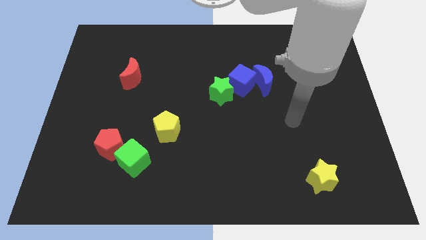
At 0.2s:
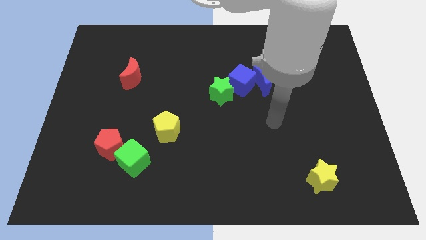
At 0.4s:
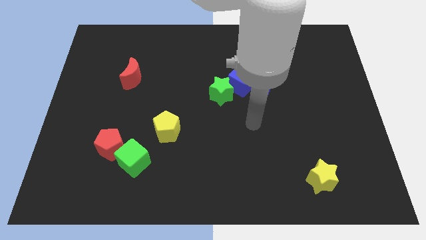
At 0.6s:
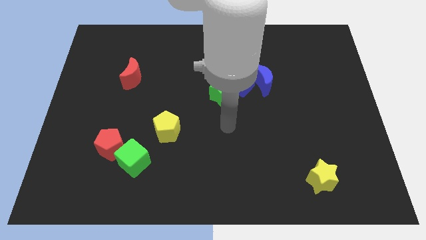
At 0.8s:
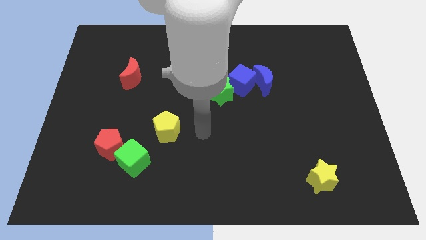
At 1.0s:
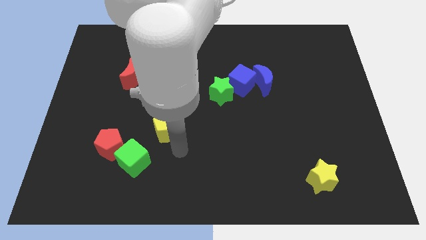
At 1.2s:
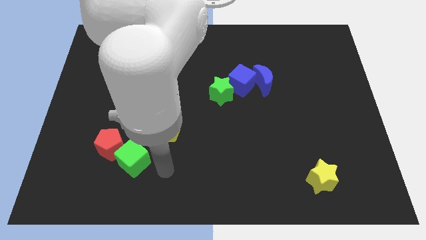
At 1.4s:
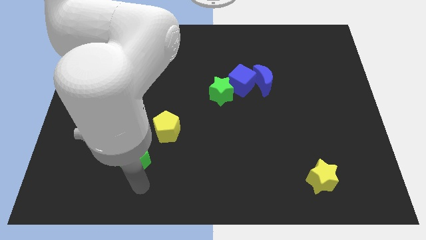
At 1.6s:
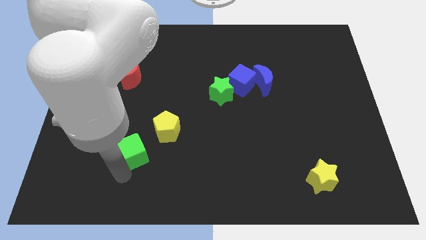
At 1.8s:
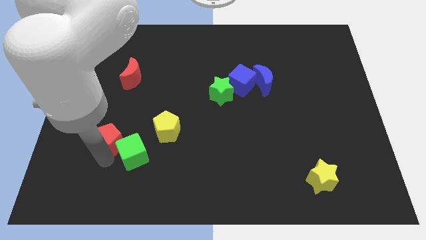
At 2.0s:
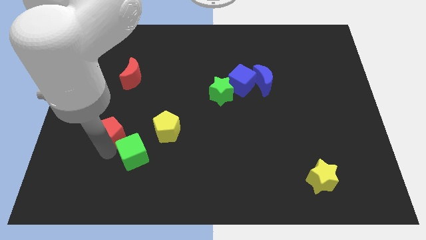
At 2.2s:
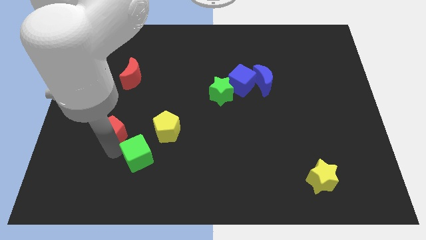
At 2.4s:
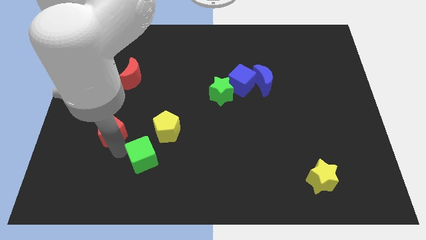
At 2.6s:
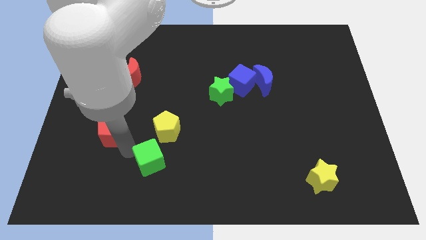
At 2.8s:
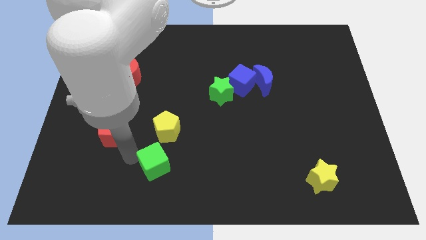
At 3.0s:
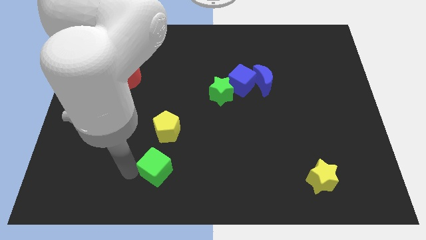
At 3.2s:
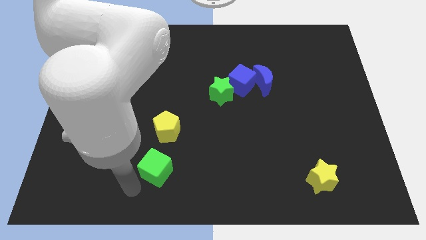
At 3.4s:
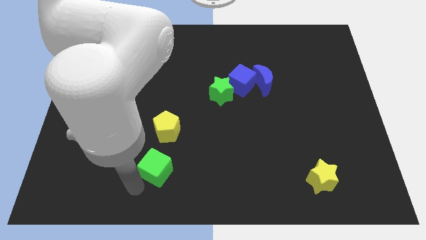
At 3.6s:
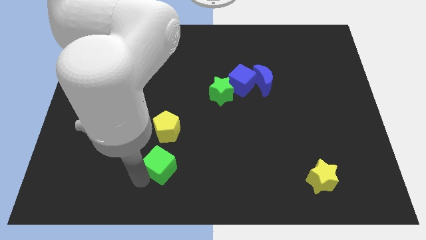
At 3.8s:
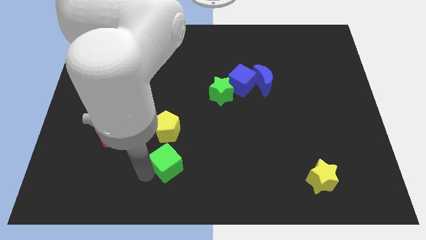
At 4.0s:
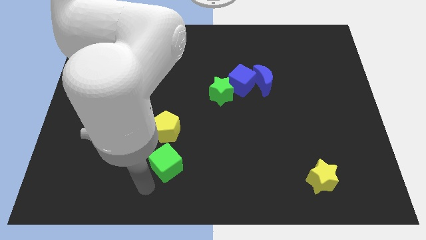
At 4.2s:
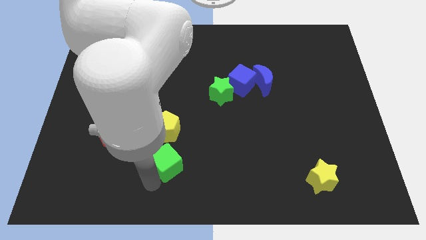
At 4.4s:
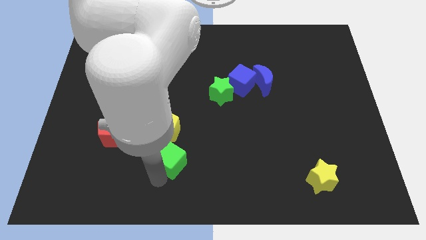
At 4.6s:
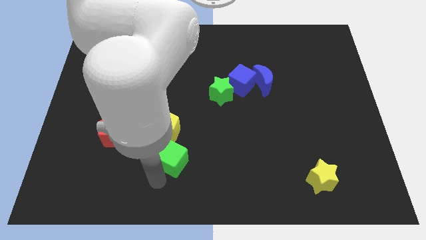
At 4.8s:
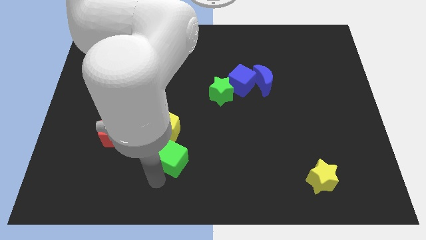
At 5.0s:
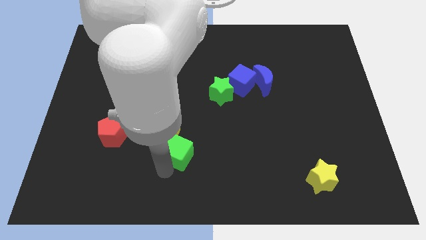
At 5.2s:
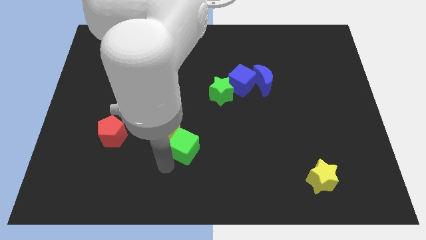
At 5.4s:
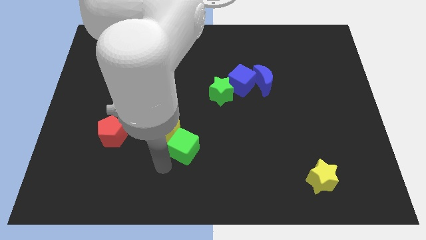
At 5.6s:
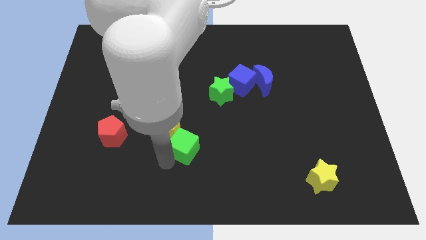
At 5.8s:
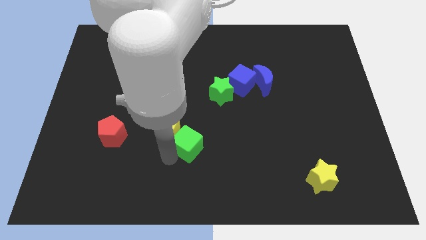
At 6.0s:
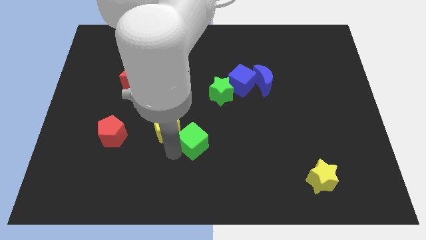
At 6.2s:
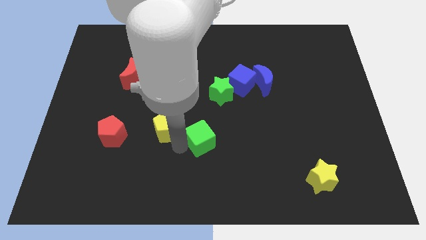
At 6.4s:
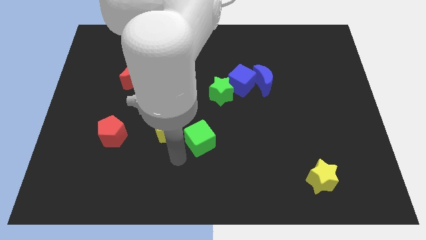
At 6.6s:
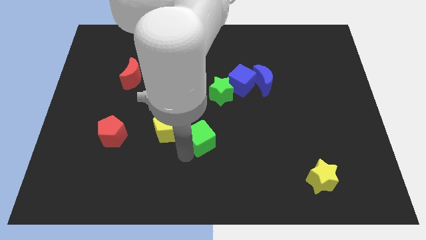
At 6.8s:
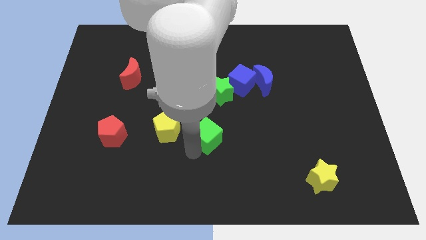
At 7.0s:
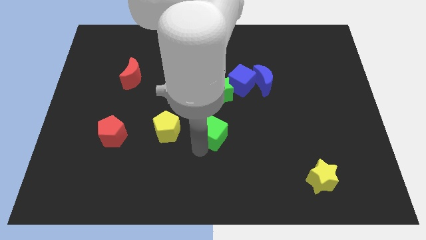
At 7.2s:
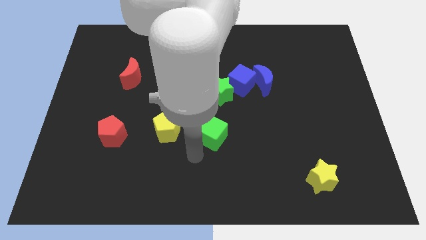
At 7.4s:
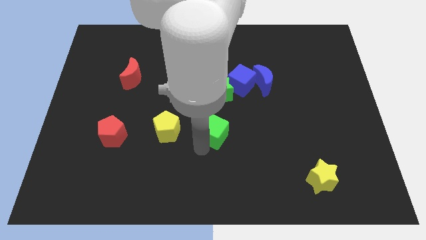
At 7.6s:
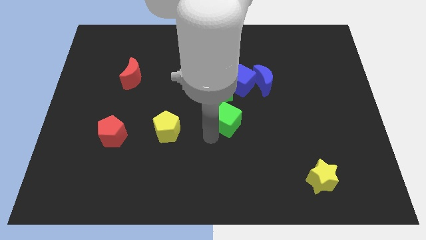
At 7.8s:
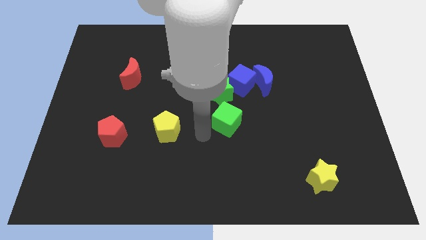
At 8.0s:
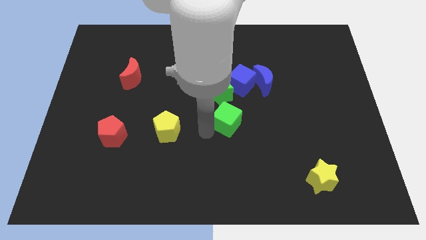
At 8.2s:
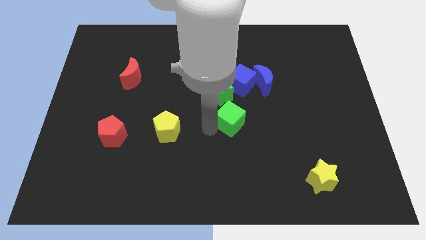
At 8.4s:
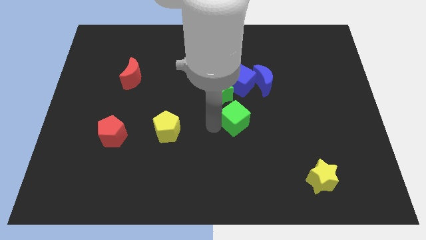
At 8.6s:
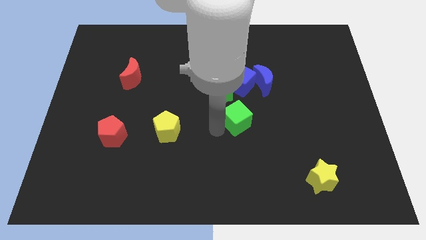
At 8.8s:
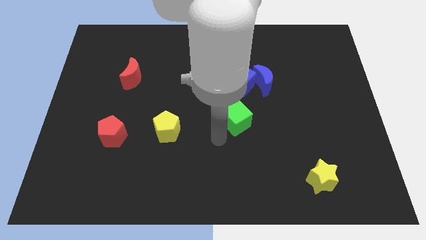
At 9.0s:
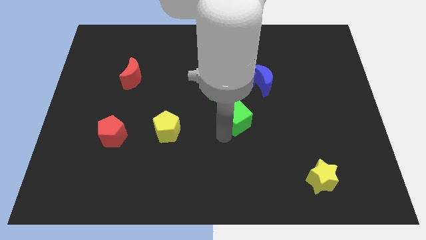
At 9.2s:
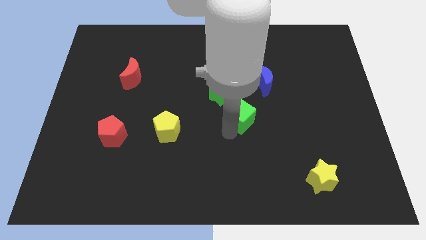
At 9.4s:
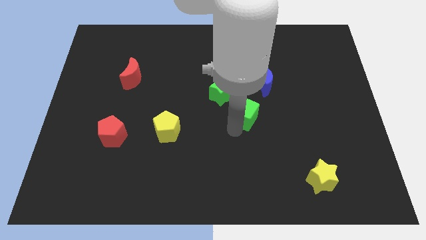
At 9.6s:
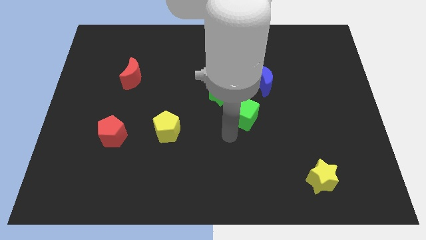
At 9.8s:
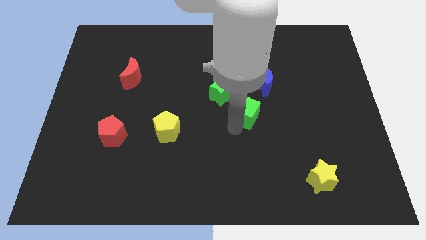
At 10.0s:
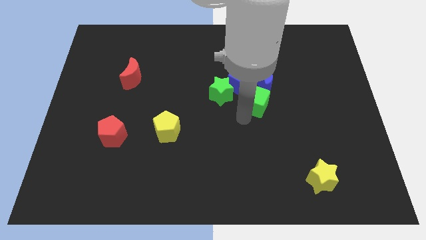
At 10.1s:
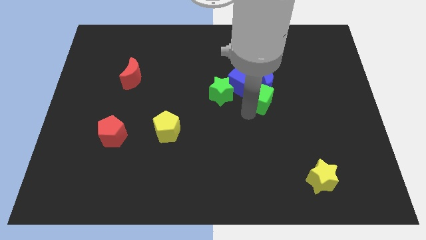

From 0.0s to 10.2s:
push the green cube next to the blue moon

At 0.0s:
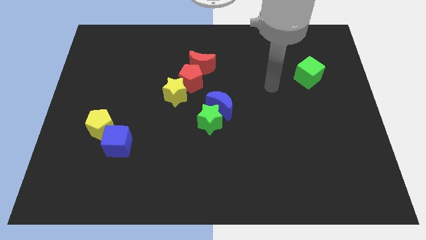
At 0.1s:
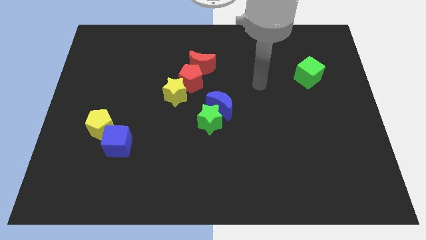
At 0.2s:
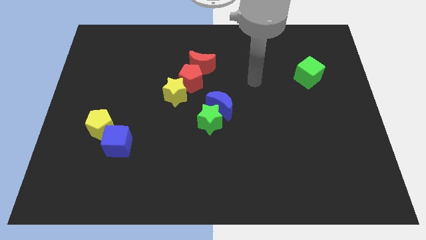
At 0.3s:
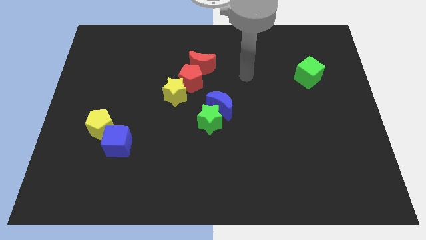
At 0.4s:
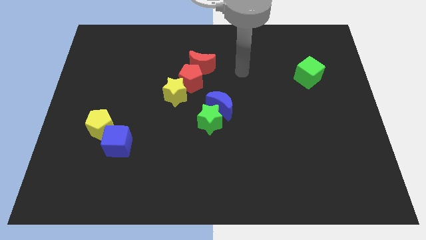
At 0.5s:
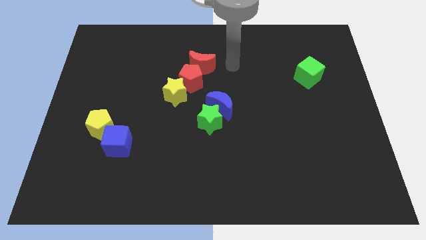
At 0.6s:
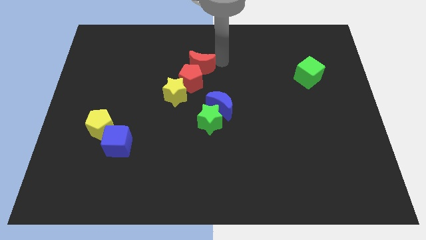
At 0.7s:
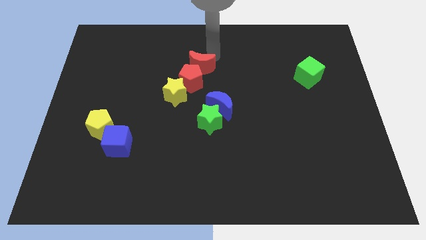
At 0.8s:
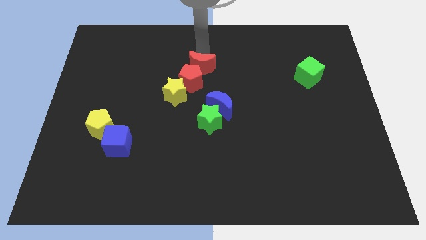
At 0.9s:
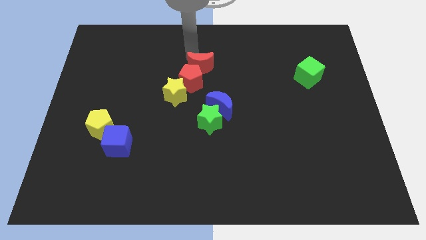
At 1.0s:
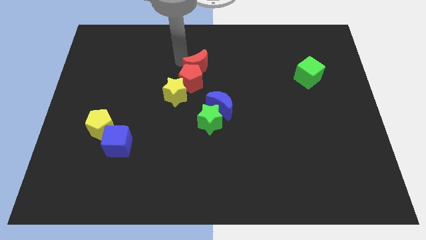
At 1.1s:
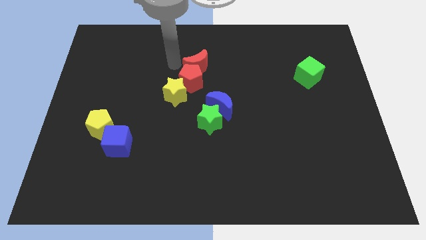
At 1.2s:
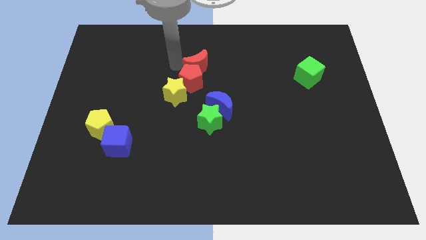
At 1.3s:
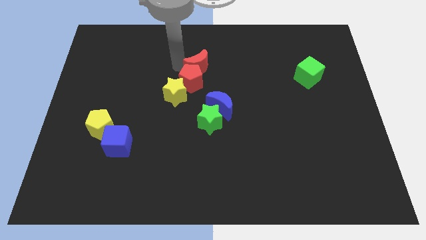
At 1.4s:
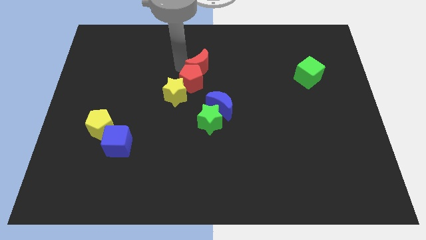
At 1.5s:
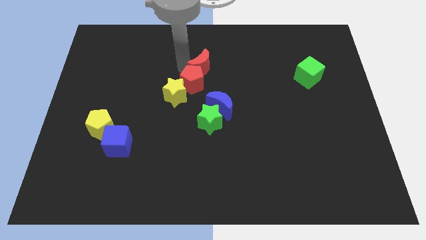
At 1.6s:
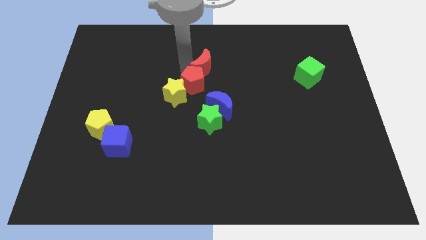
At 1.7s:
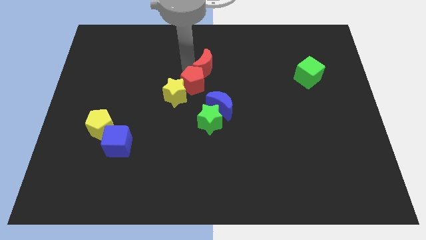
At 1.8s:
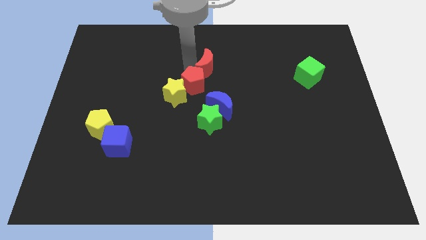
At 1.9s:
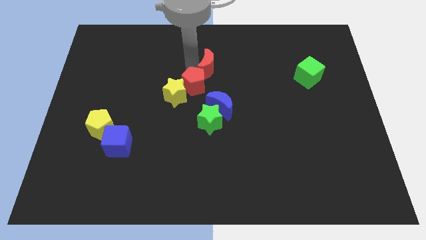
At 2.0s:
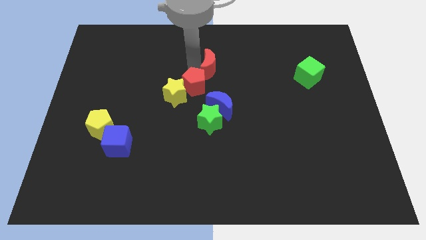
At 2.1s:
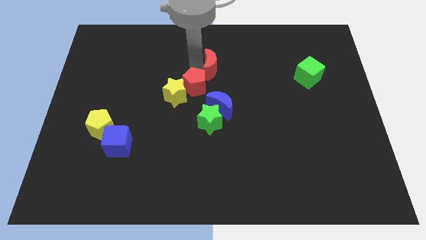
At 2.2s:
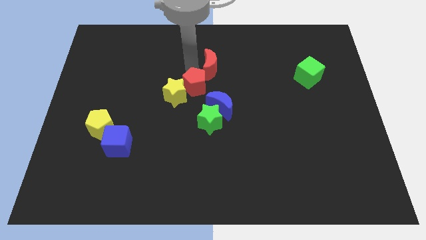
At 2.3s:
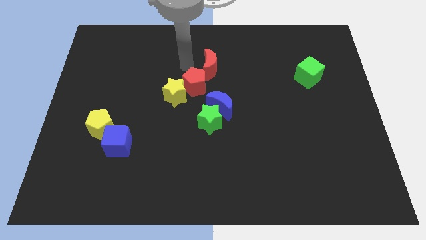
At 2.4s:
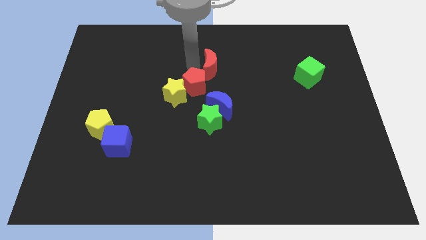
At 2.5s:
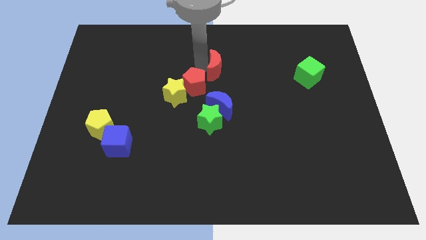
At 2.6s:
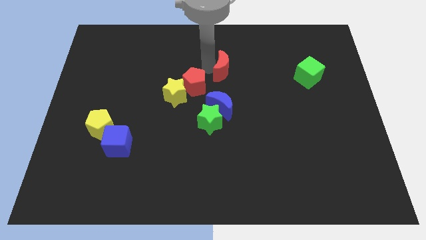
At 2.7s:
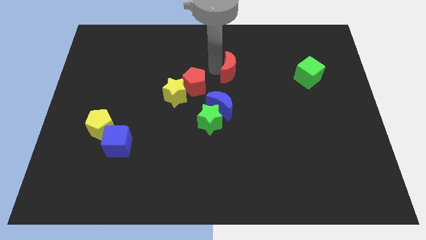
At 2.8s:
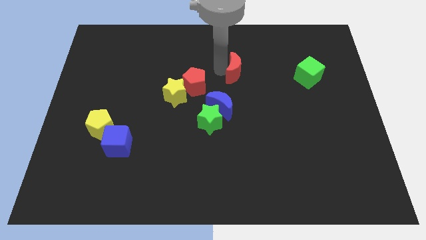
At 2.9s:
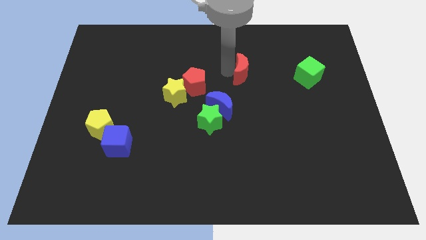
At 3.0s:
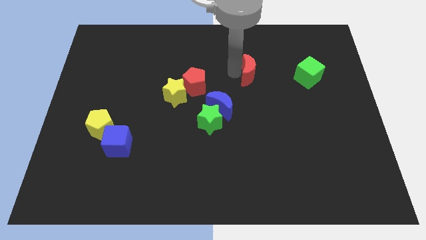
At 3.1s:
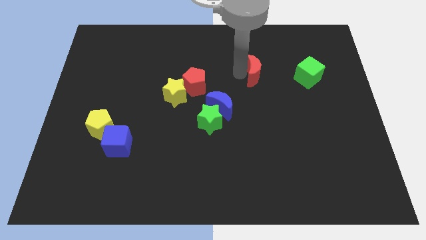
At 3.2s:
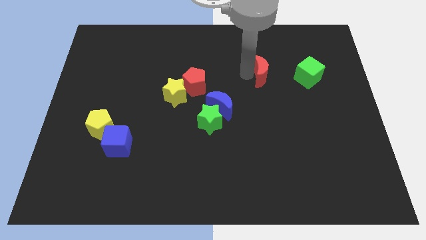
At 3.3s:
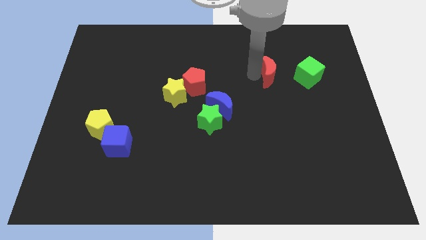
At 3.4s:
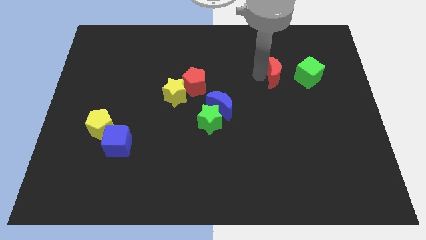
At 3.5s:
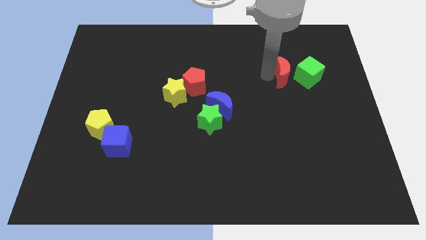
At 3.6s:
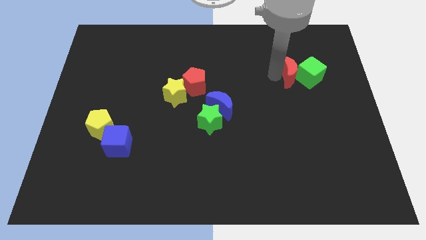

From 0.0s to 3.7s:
move the red moon to the green cube
